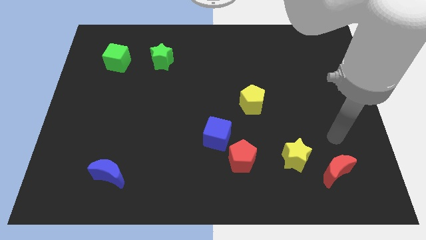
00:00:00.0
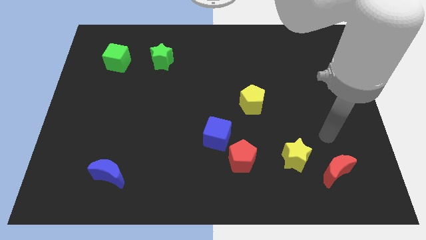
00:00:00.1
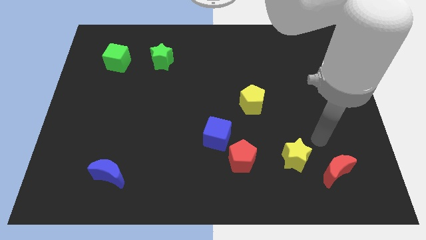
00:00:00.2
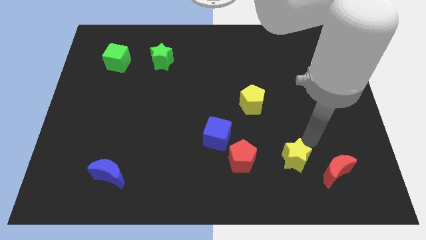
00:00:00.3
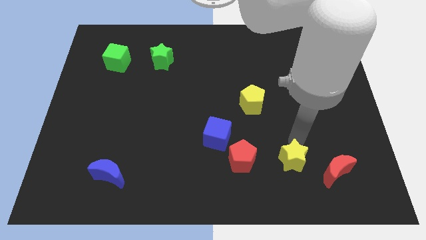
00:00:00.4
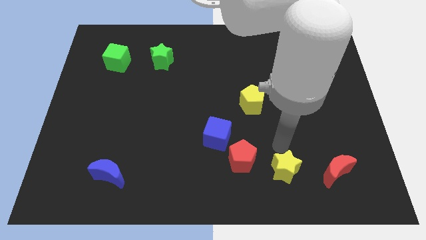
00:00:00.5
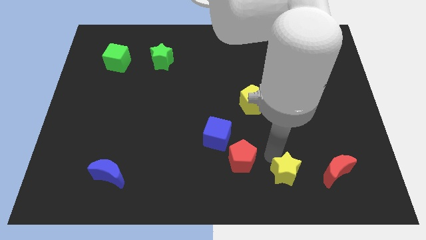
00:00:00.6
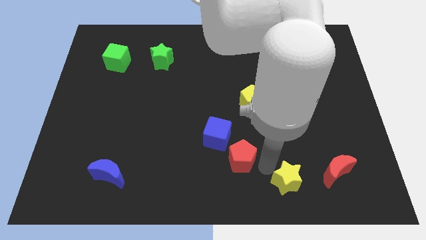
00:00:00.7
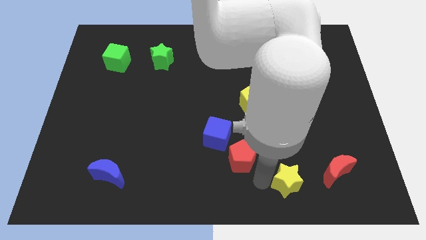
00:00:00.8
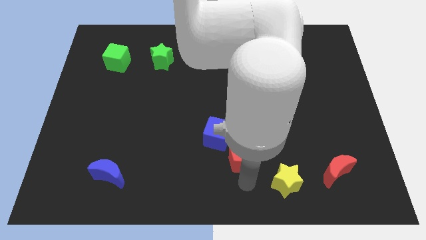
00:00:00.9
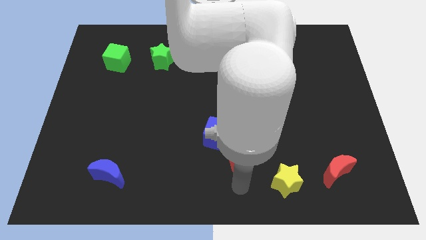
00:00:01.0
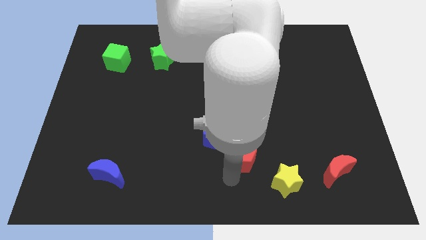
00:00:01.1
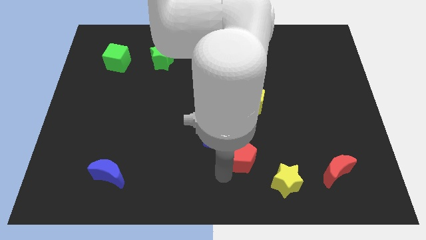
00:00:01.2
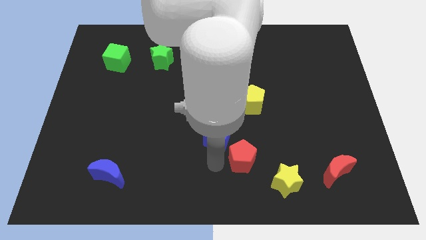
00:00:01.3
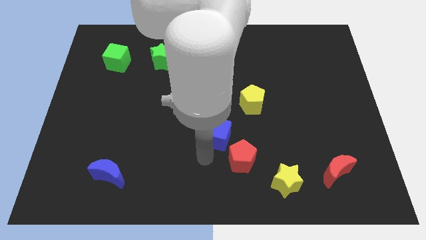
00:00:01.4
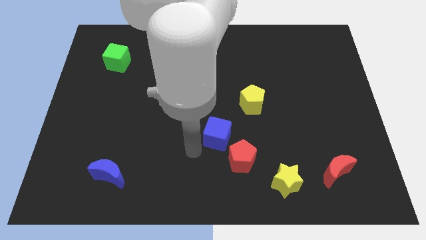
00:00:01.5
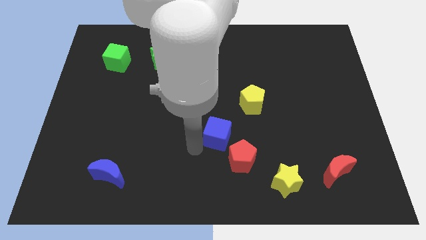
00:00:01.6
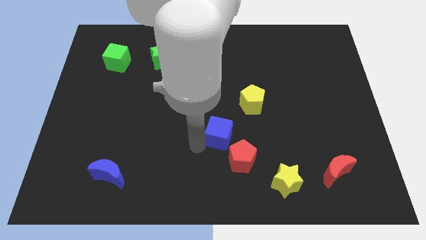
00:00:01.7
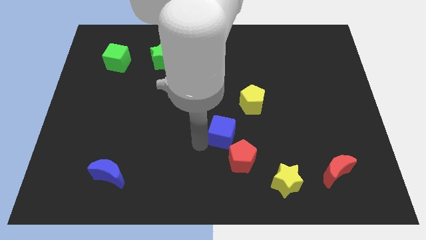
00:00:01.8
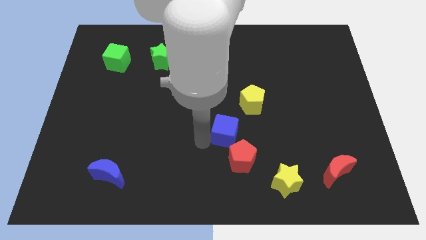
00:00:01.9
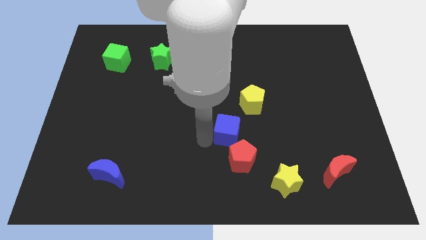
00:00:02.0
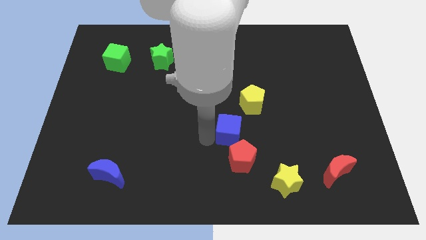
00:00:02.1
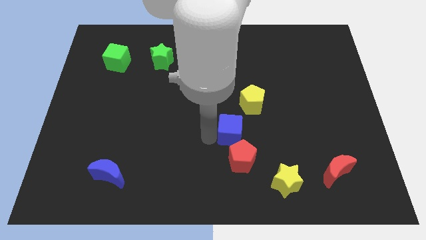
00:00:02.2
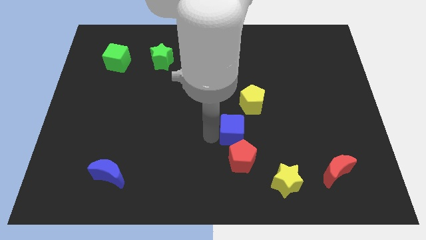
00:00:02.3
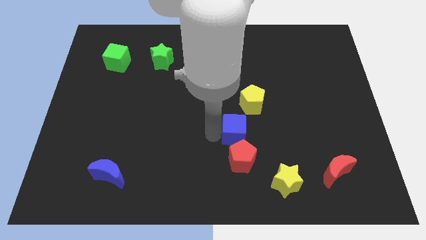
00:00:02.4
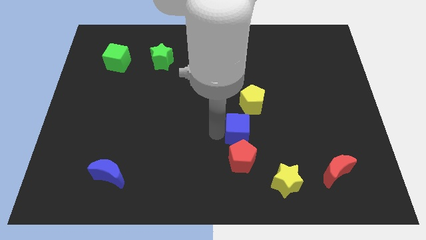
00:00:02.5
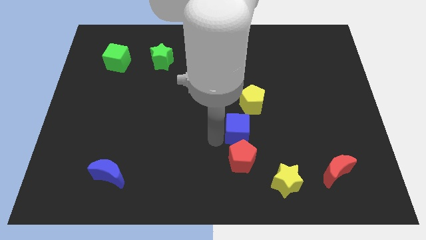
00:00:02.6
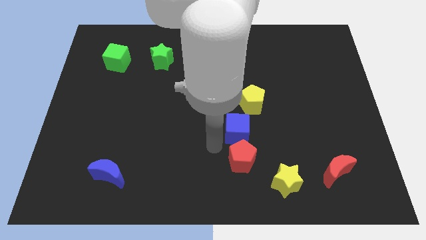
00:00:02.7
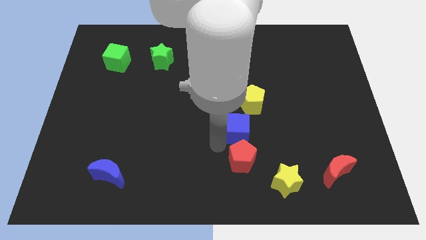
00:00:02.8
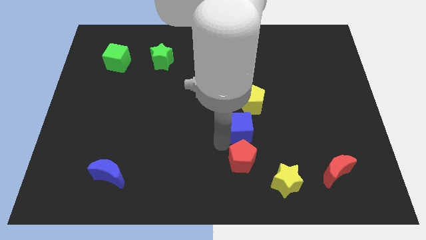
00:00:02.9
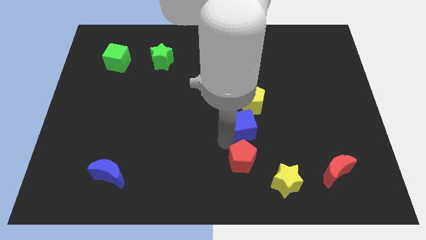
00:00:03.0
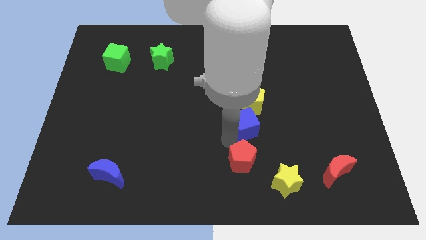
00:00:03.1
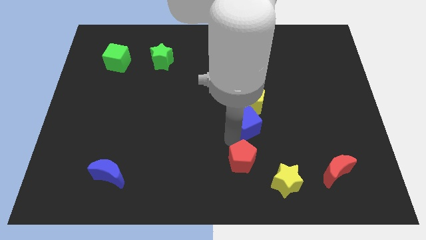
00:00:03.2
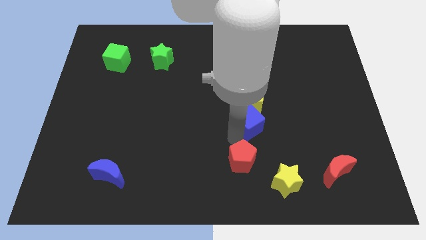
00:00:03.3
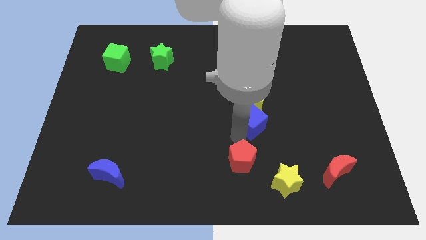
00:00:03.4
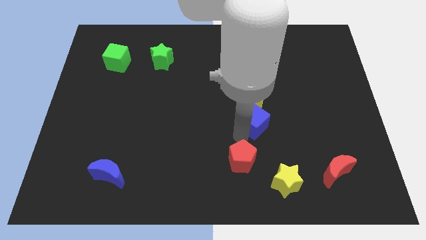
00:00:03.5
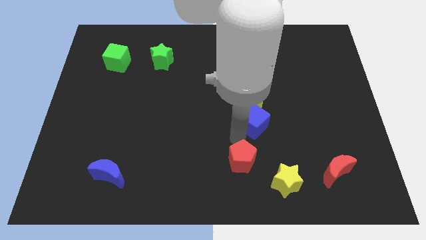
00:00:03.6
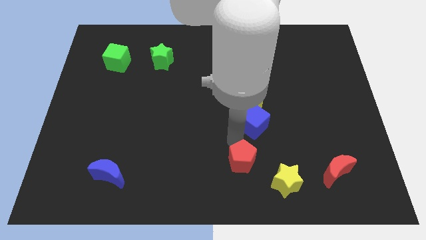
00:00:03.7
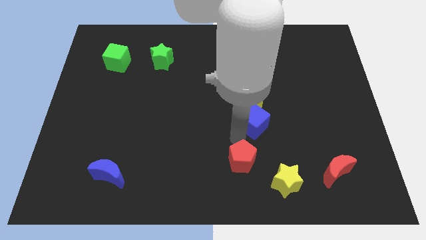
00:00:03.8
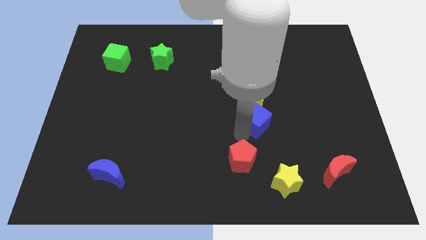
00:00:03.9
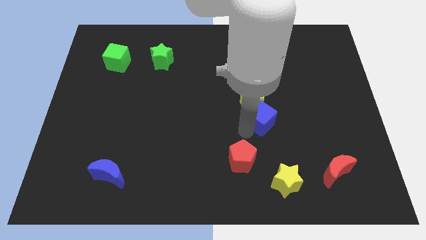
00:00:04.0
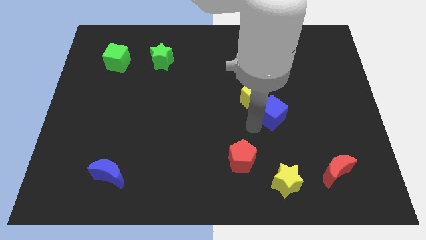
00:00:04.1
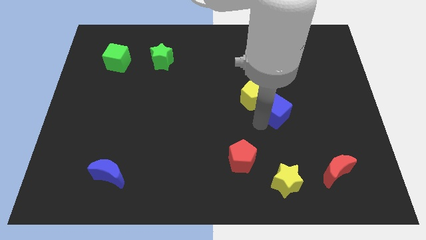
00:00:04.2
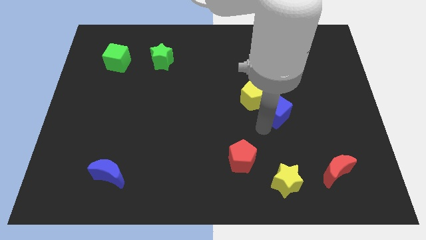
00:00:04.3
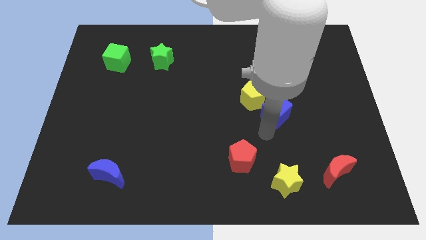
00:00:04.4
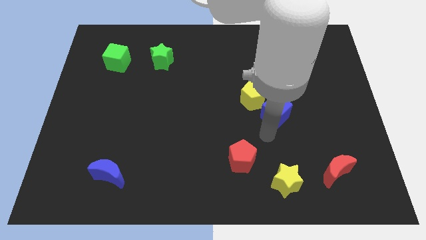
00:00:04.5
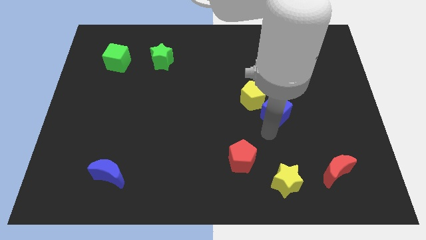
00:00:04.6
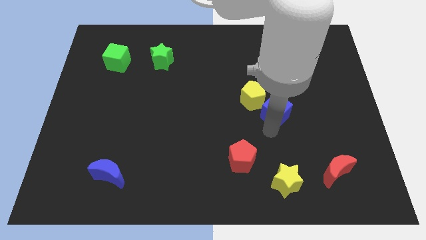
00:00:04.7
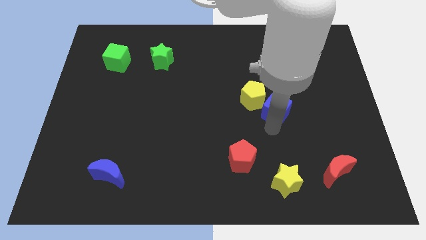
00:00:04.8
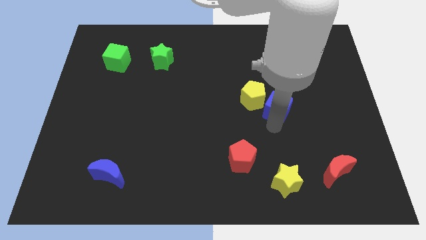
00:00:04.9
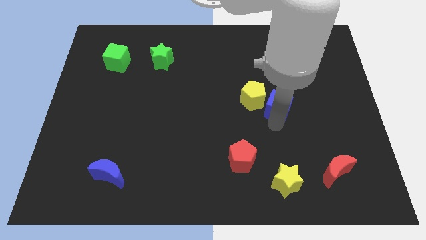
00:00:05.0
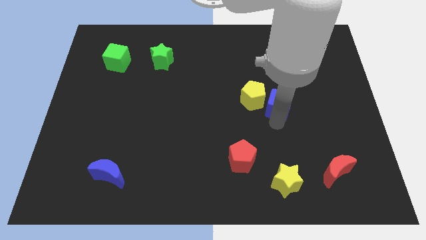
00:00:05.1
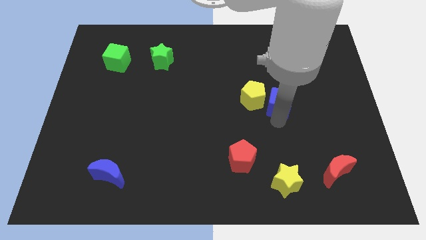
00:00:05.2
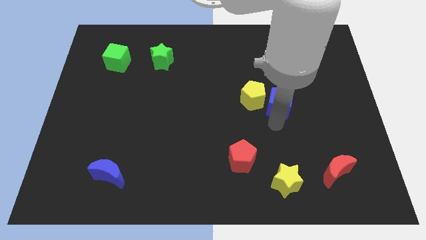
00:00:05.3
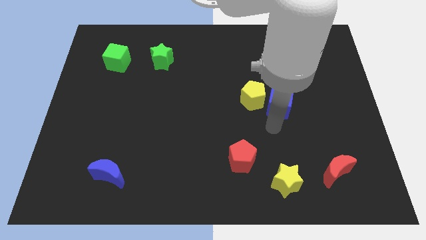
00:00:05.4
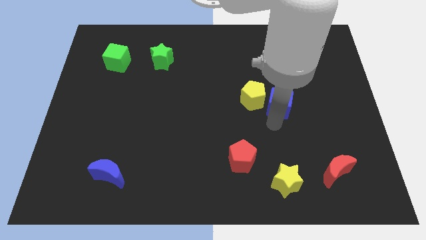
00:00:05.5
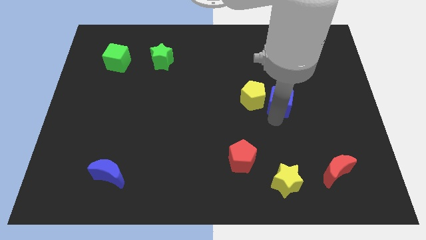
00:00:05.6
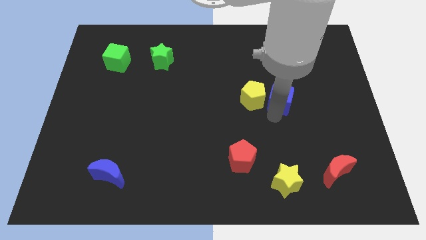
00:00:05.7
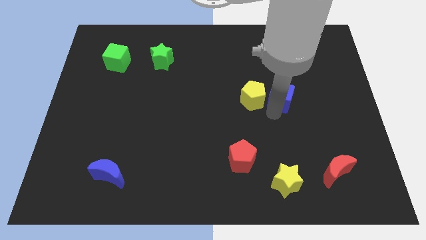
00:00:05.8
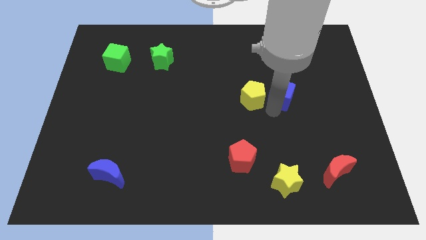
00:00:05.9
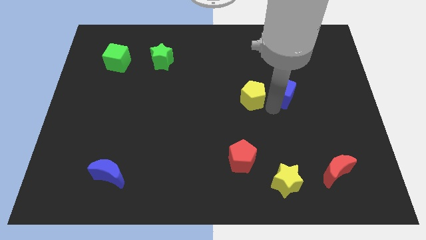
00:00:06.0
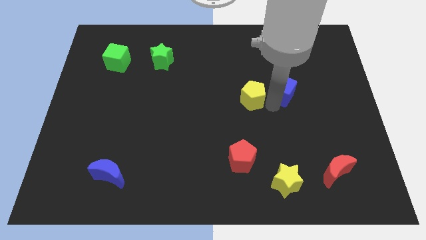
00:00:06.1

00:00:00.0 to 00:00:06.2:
slide the blue cube upwards and right

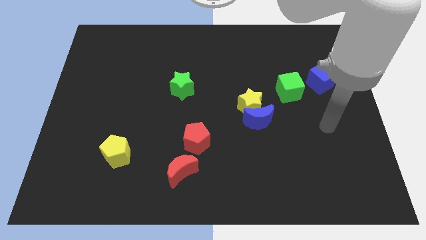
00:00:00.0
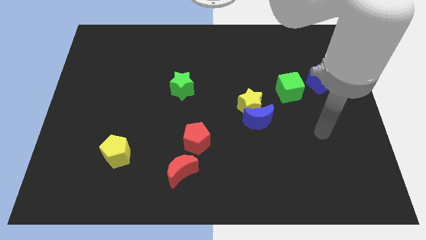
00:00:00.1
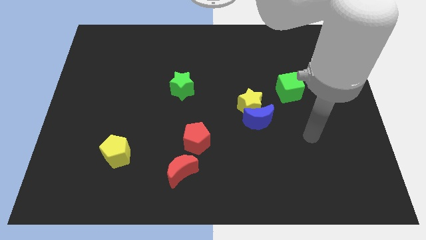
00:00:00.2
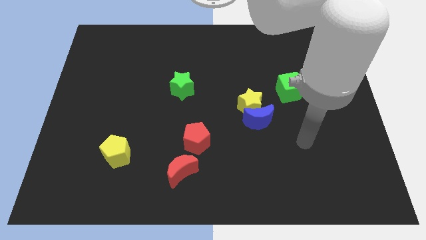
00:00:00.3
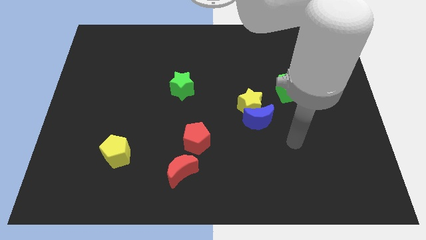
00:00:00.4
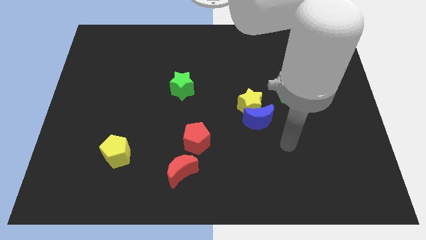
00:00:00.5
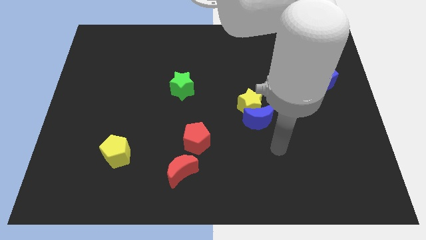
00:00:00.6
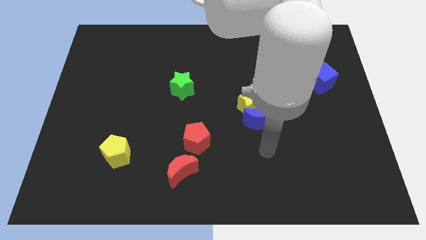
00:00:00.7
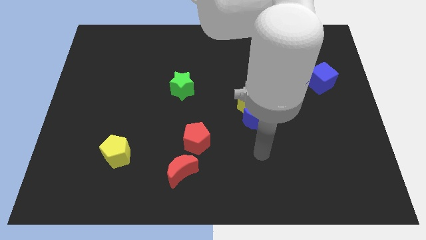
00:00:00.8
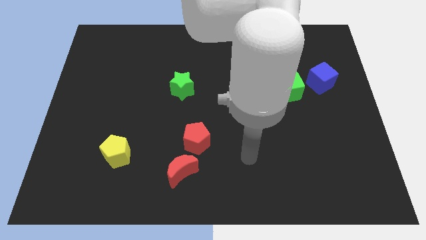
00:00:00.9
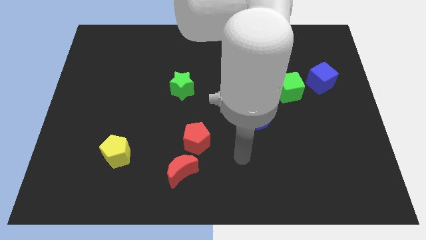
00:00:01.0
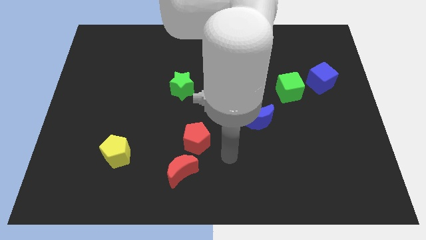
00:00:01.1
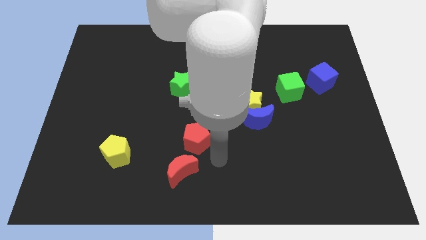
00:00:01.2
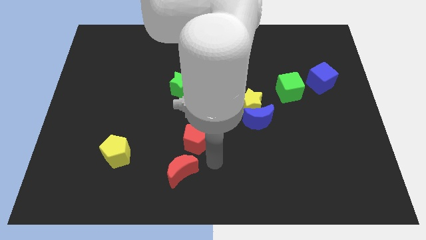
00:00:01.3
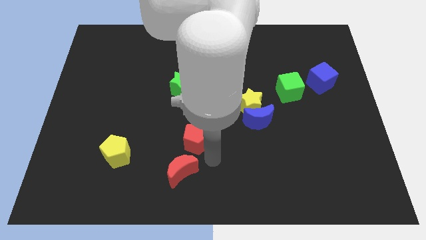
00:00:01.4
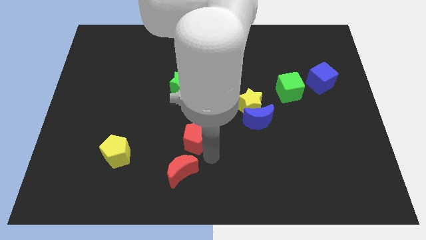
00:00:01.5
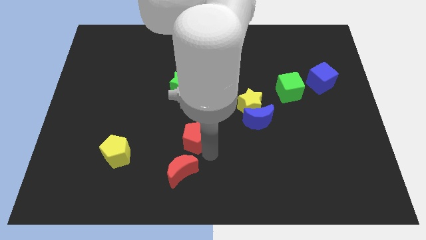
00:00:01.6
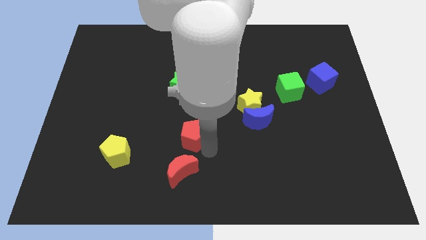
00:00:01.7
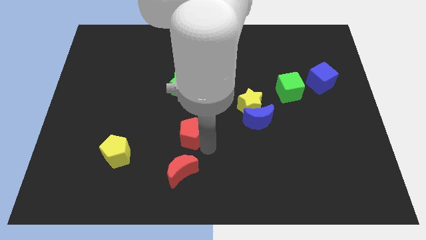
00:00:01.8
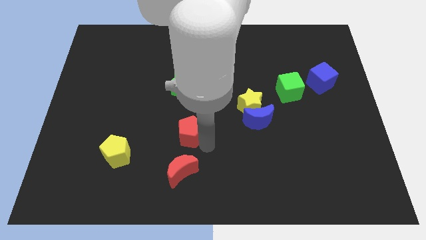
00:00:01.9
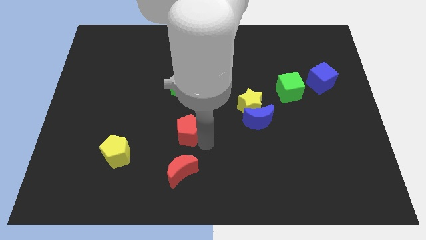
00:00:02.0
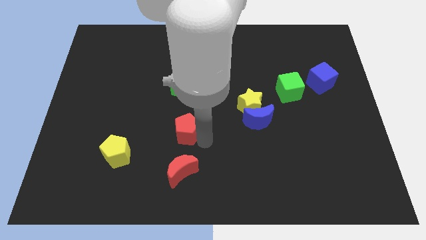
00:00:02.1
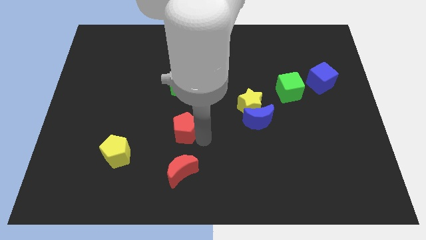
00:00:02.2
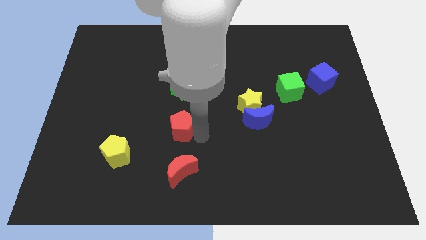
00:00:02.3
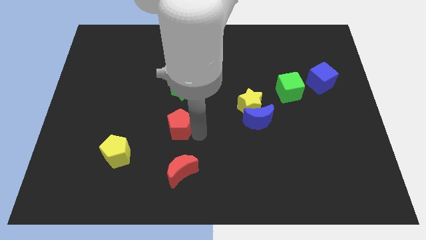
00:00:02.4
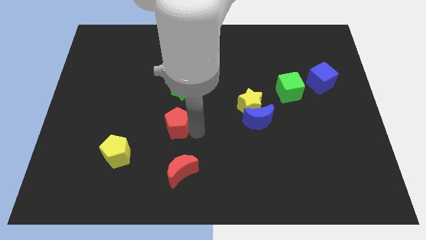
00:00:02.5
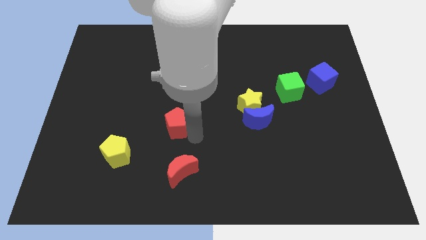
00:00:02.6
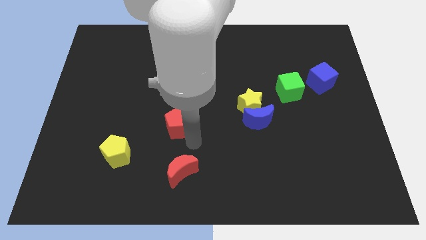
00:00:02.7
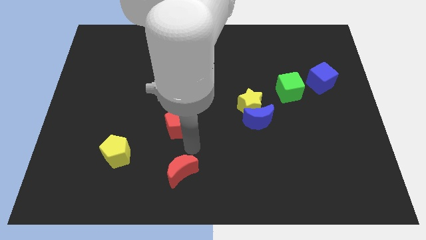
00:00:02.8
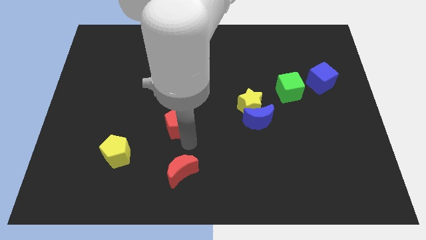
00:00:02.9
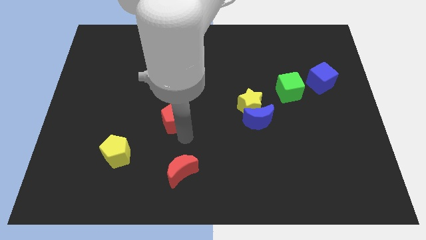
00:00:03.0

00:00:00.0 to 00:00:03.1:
move the red pentagon somewhat diagonally up and left
